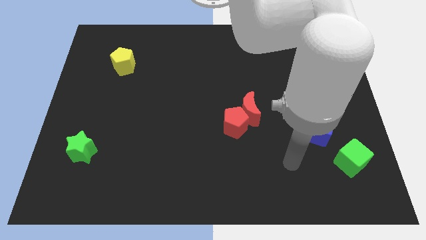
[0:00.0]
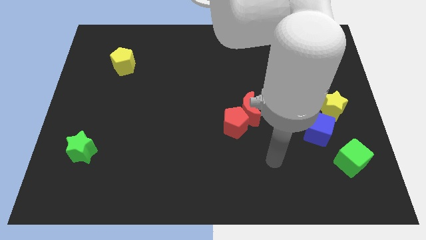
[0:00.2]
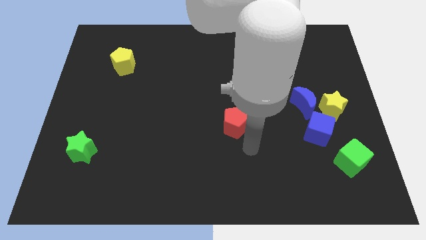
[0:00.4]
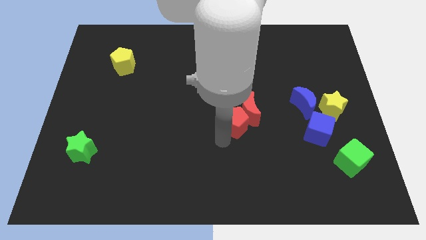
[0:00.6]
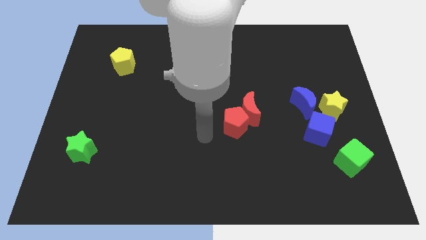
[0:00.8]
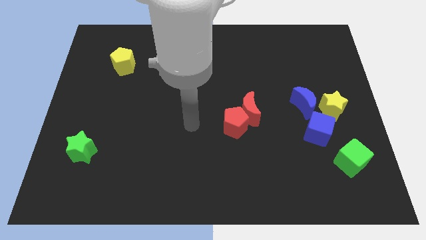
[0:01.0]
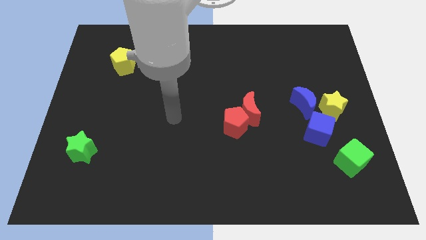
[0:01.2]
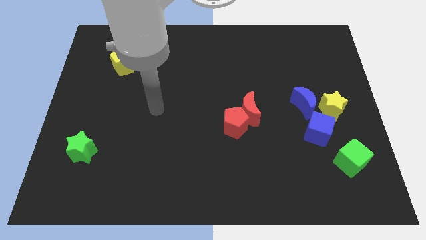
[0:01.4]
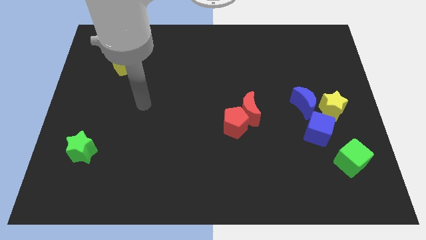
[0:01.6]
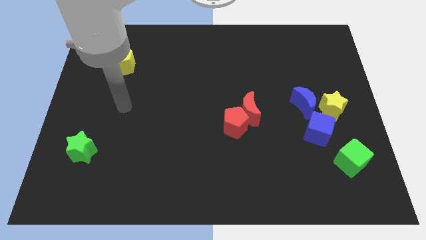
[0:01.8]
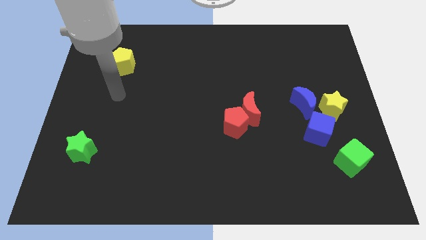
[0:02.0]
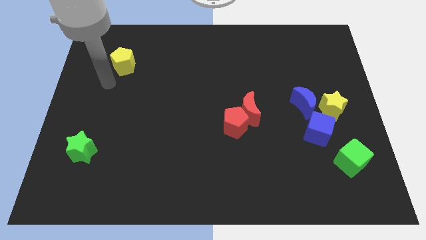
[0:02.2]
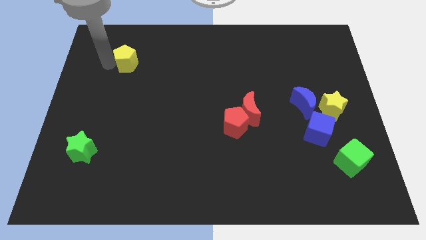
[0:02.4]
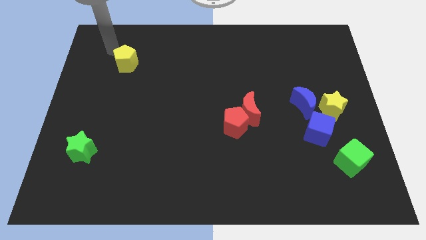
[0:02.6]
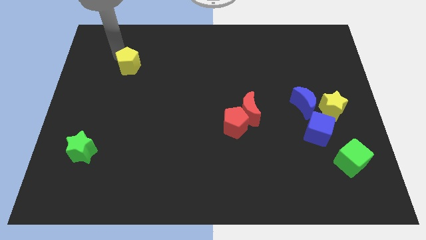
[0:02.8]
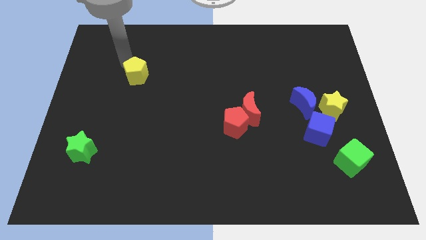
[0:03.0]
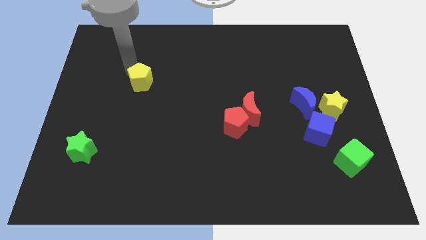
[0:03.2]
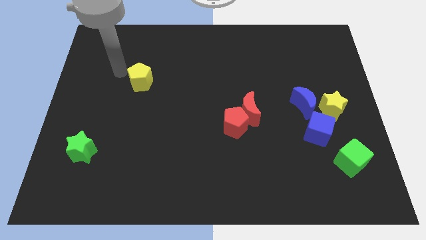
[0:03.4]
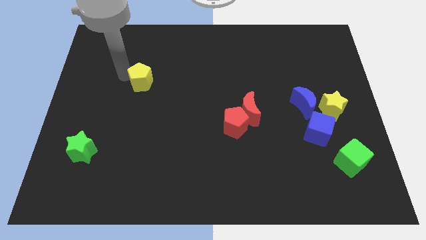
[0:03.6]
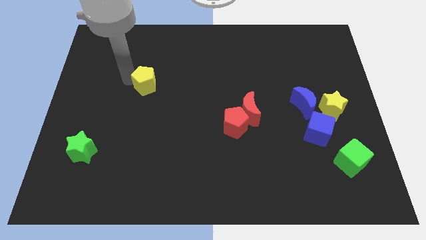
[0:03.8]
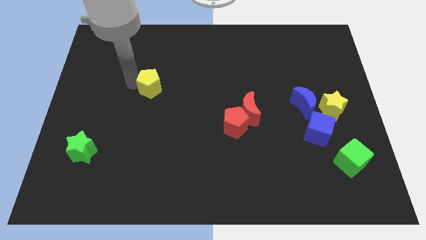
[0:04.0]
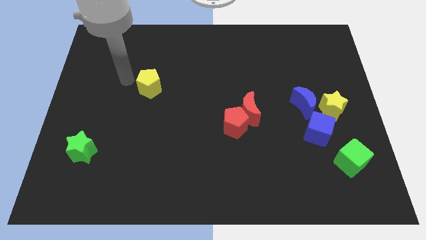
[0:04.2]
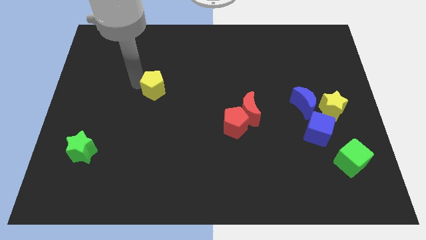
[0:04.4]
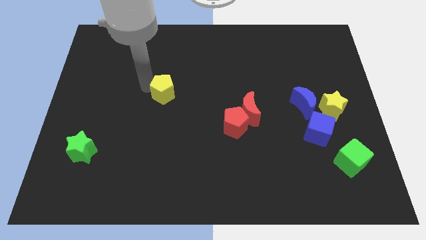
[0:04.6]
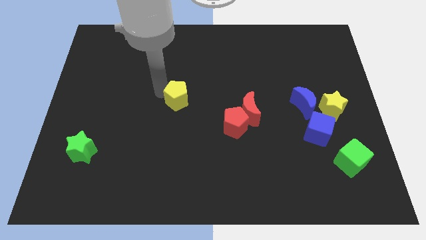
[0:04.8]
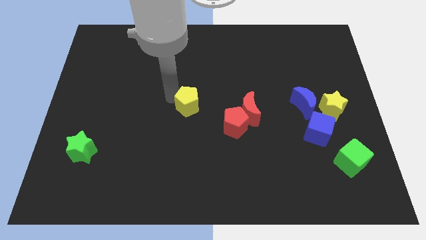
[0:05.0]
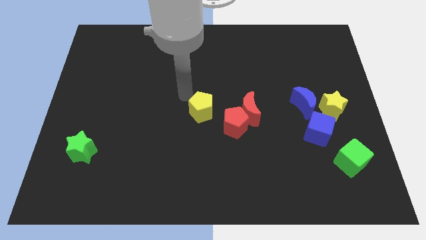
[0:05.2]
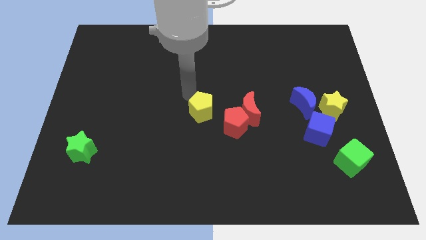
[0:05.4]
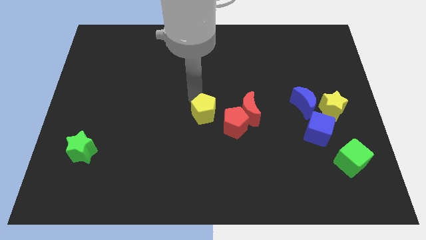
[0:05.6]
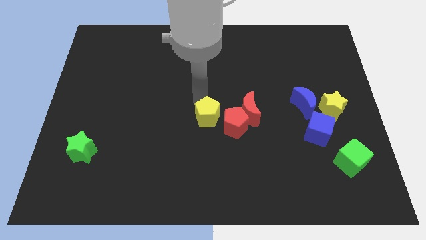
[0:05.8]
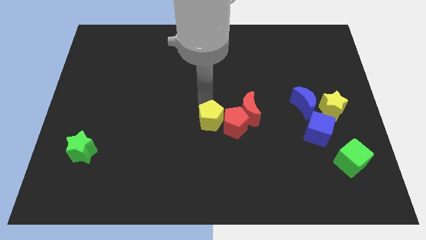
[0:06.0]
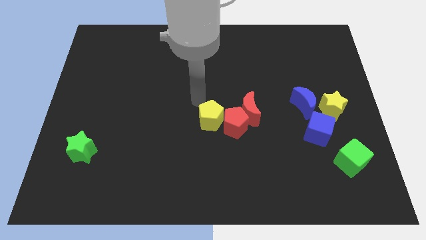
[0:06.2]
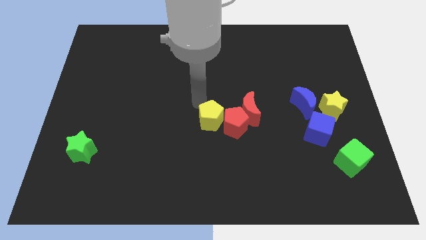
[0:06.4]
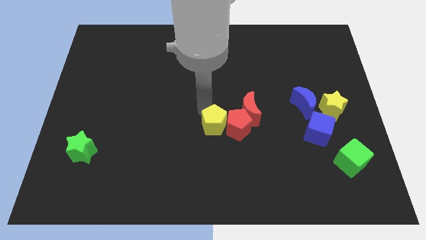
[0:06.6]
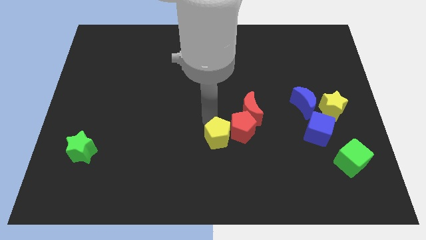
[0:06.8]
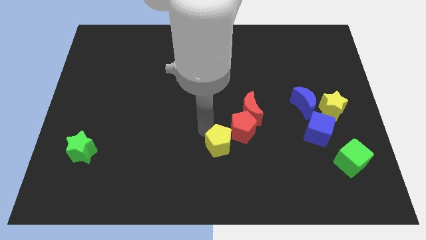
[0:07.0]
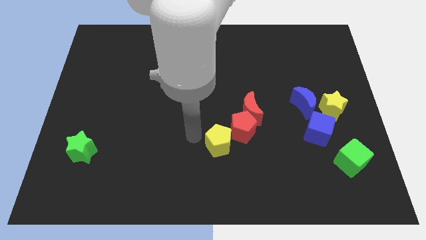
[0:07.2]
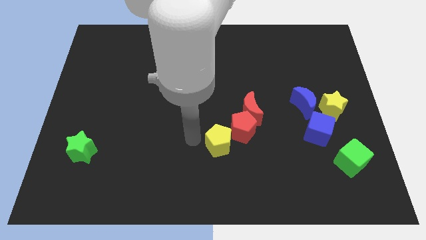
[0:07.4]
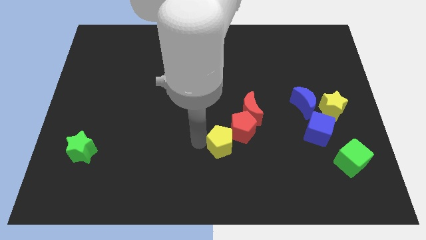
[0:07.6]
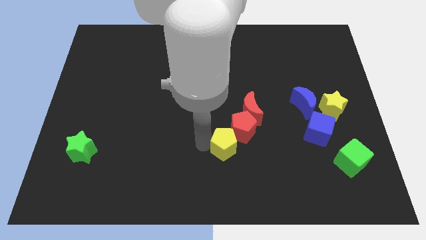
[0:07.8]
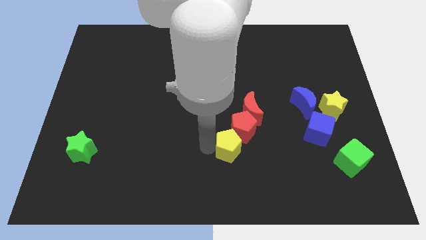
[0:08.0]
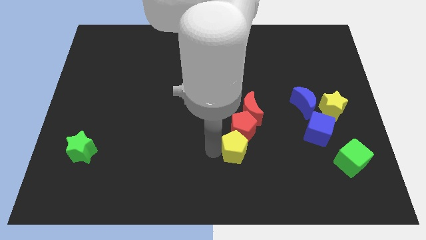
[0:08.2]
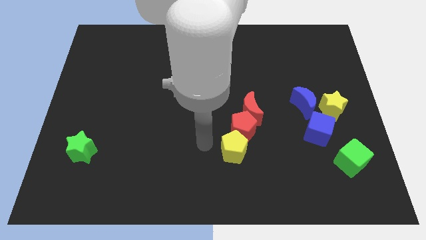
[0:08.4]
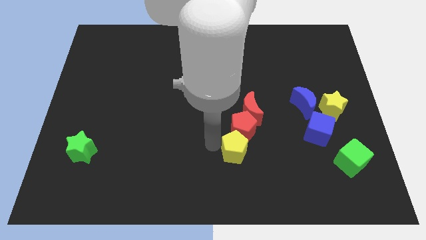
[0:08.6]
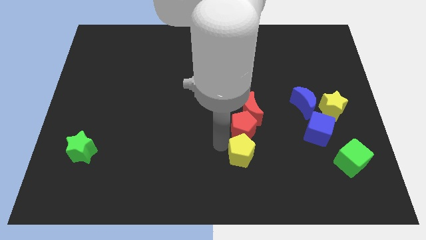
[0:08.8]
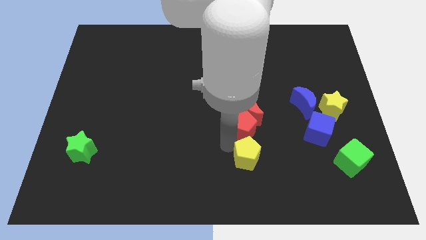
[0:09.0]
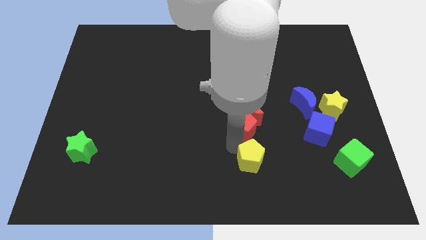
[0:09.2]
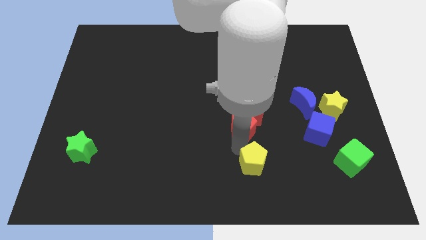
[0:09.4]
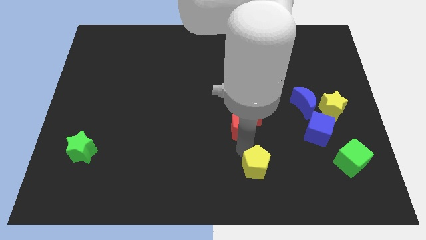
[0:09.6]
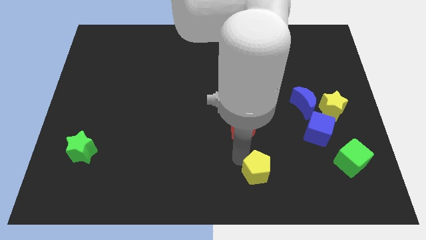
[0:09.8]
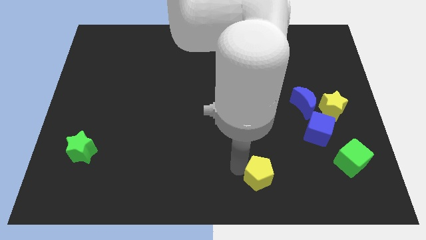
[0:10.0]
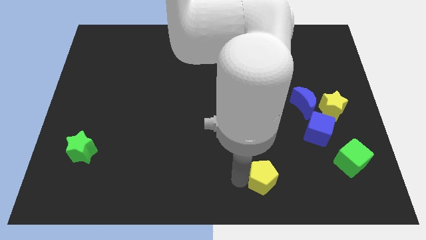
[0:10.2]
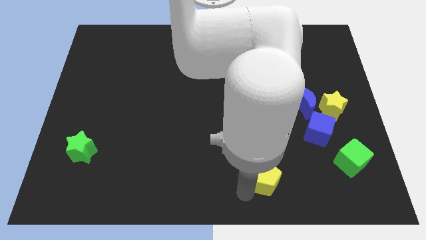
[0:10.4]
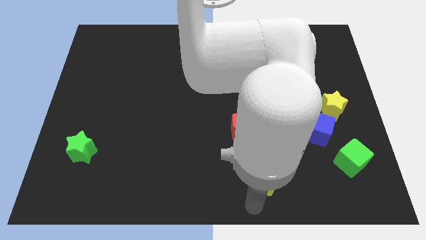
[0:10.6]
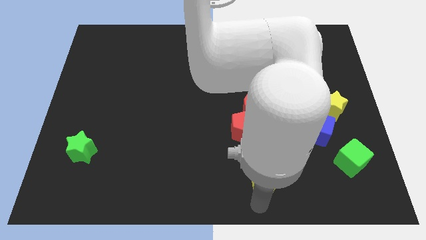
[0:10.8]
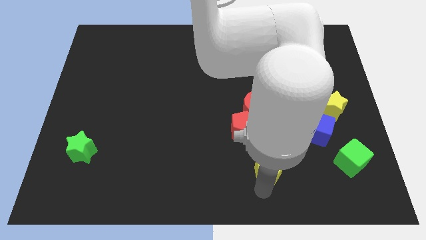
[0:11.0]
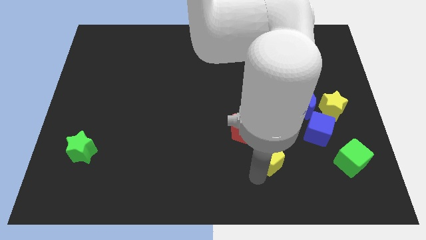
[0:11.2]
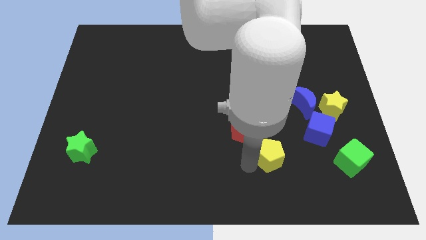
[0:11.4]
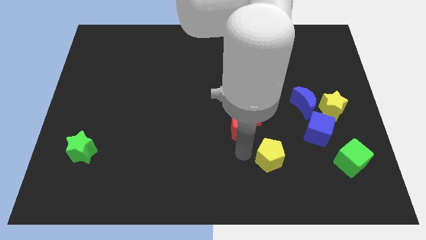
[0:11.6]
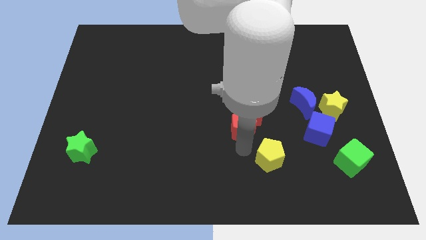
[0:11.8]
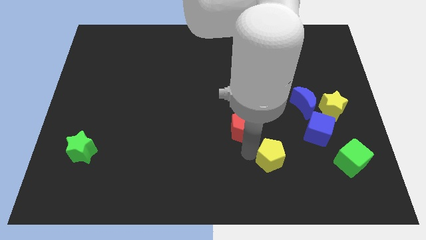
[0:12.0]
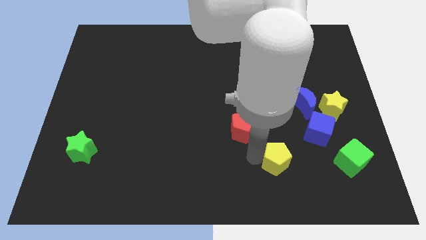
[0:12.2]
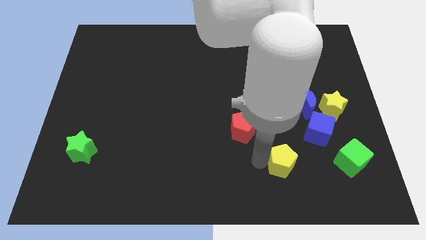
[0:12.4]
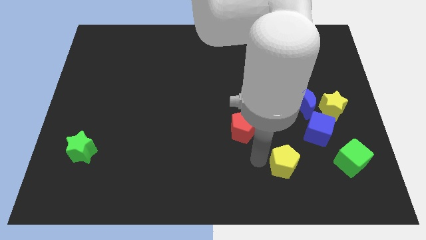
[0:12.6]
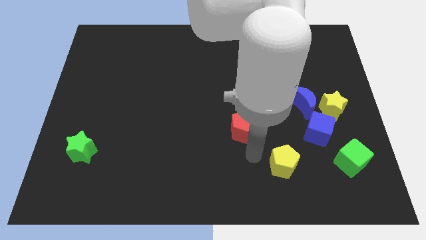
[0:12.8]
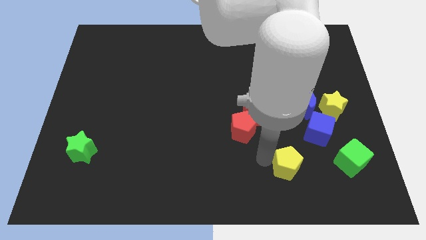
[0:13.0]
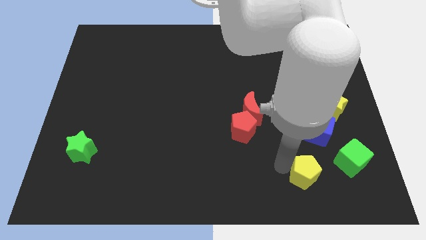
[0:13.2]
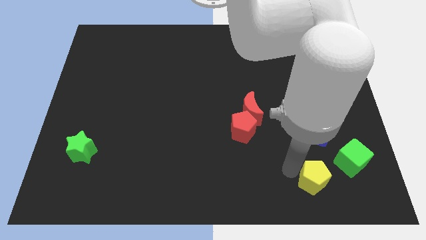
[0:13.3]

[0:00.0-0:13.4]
put the yellow pentagon to the bottom left of the green cube
